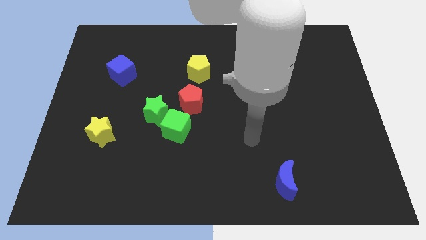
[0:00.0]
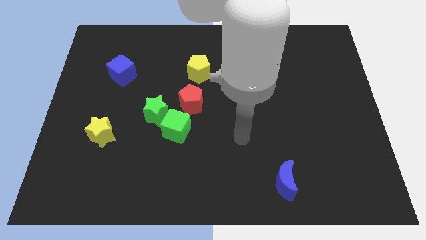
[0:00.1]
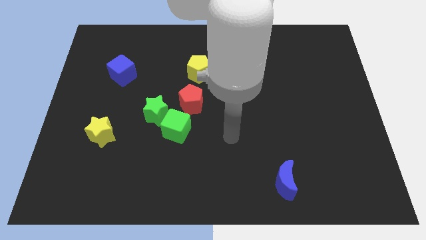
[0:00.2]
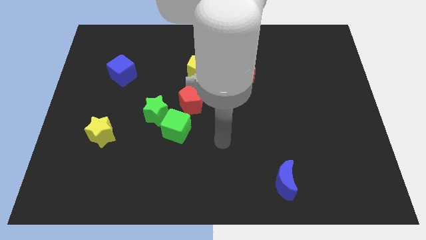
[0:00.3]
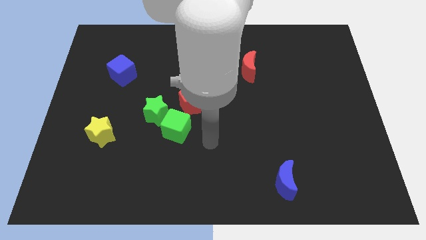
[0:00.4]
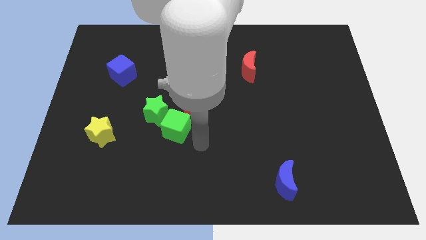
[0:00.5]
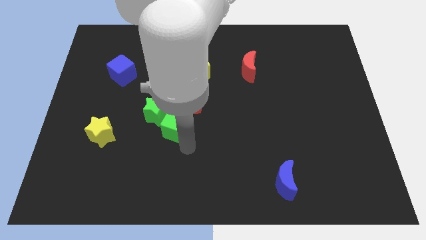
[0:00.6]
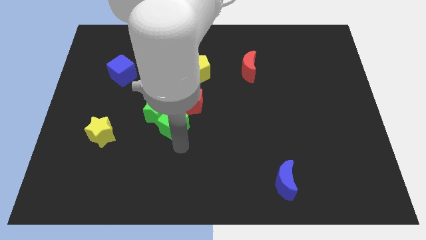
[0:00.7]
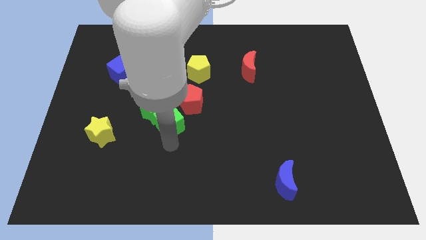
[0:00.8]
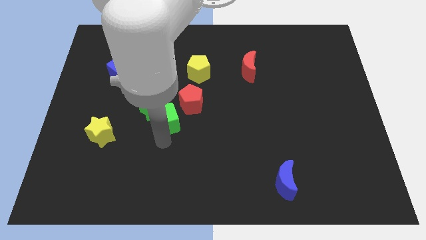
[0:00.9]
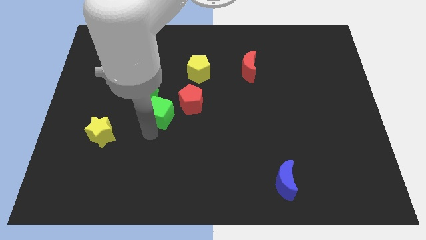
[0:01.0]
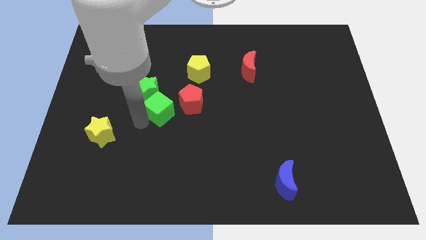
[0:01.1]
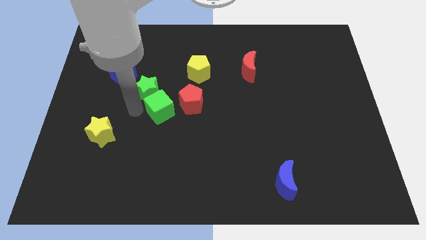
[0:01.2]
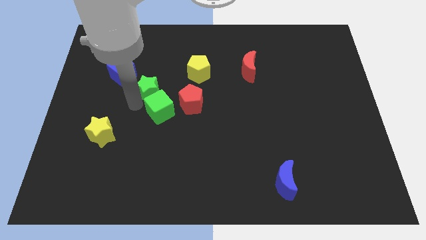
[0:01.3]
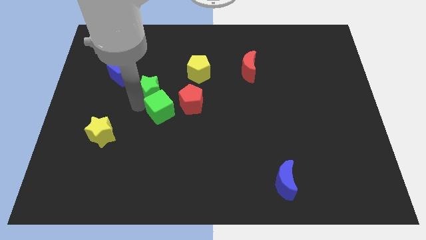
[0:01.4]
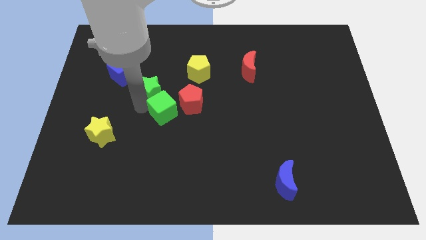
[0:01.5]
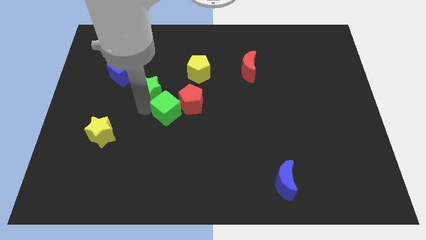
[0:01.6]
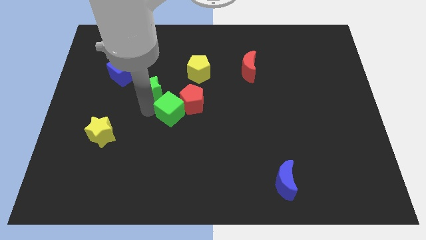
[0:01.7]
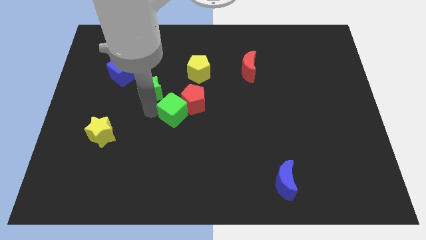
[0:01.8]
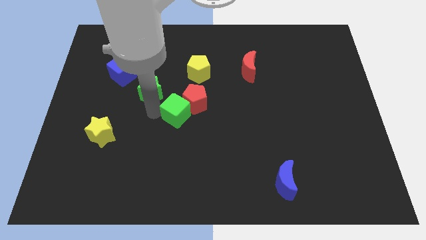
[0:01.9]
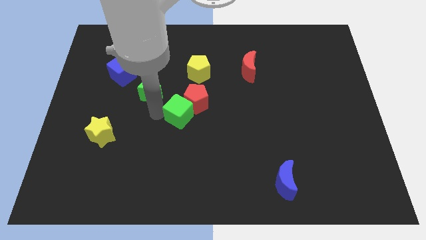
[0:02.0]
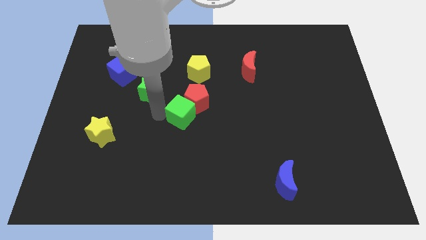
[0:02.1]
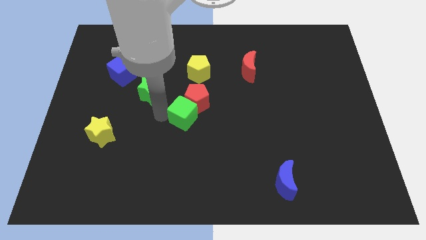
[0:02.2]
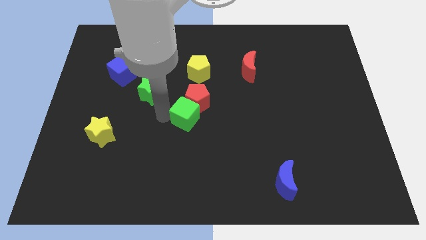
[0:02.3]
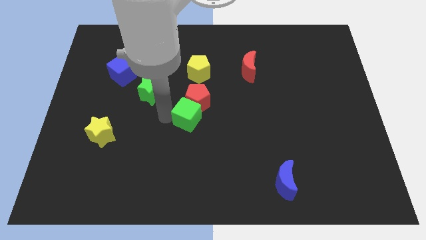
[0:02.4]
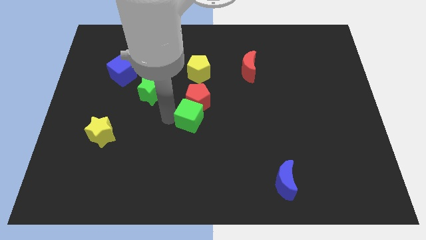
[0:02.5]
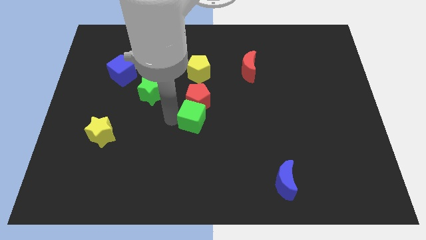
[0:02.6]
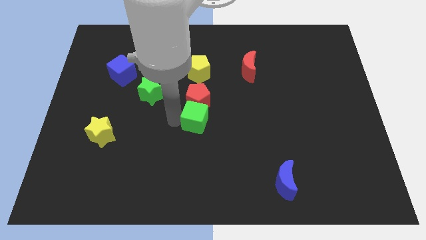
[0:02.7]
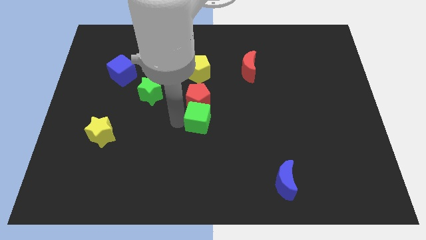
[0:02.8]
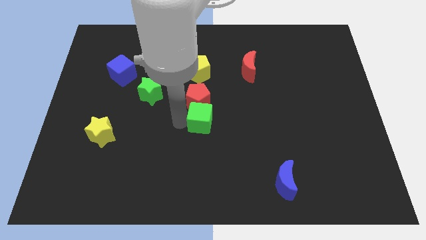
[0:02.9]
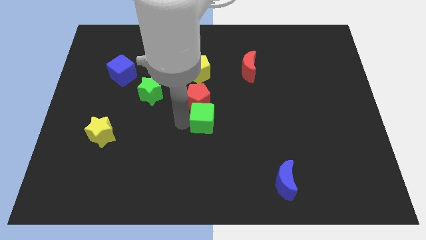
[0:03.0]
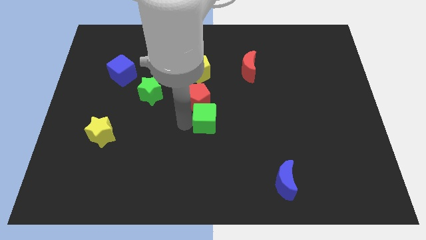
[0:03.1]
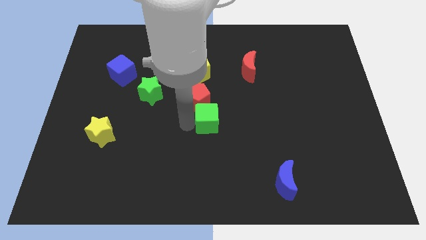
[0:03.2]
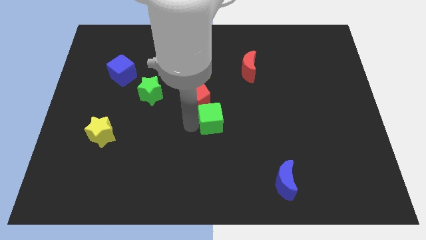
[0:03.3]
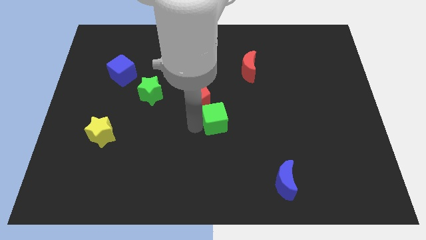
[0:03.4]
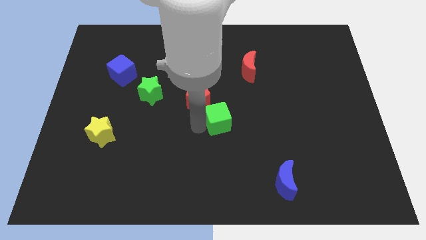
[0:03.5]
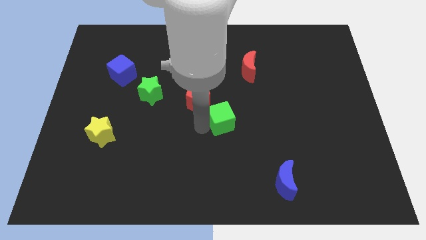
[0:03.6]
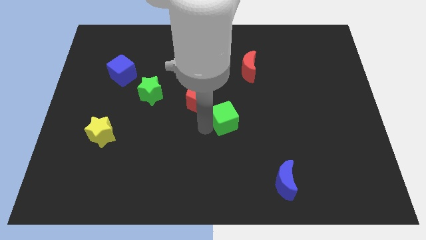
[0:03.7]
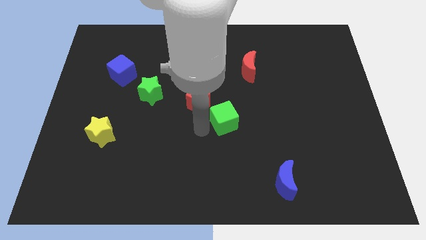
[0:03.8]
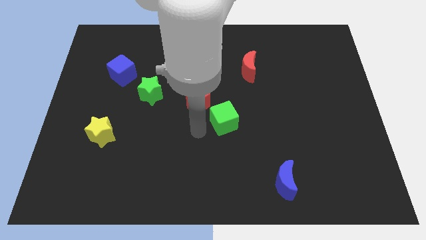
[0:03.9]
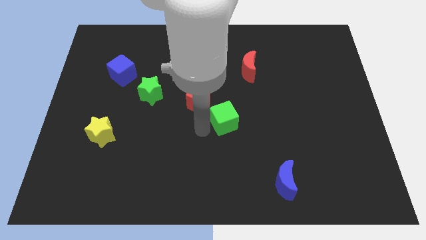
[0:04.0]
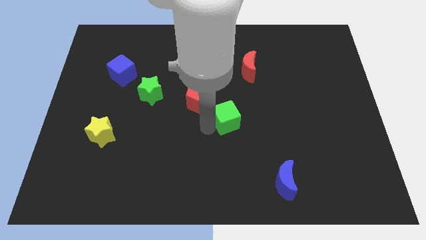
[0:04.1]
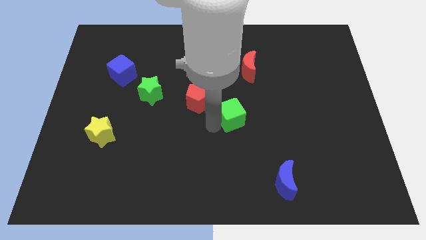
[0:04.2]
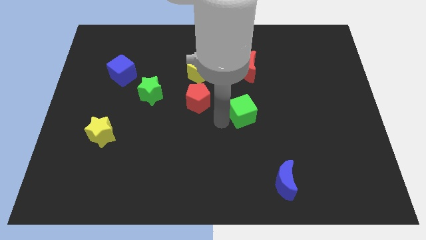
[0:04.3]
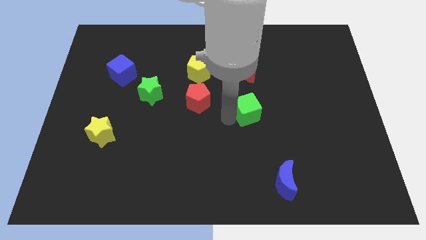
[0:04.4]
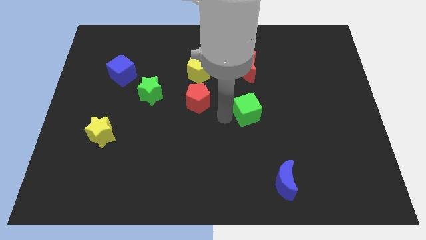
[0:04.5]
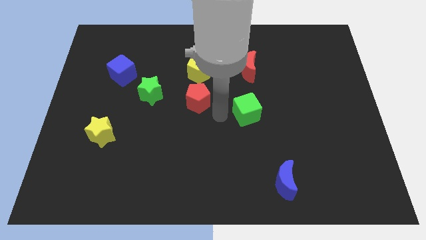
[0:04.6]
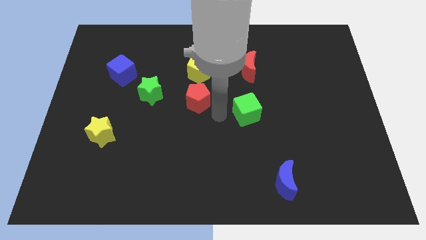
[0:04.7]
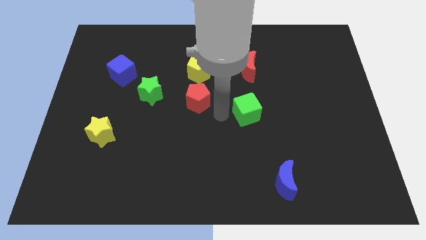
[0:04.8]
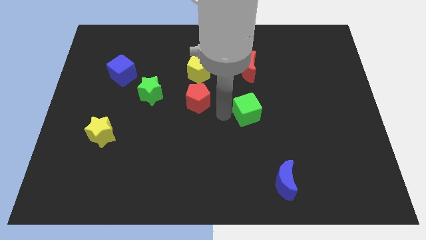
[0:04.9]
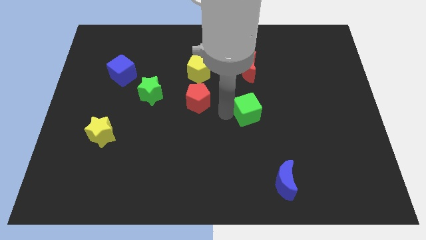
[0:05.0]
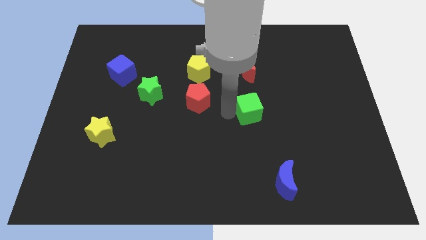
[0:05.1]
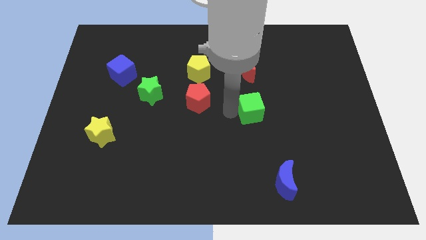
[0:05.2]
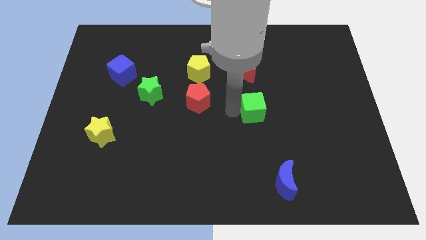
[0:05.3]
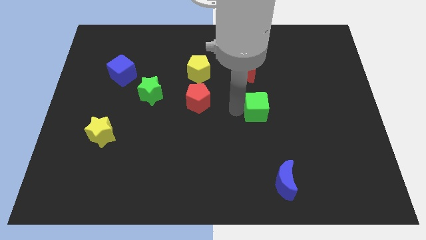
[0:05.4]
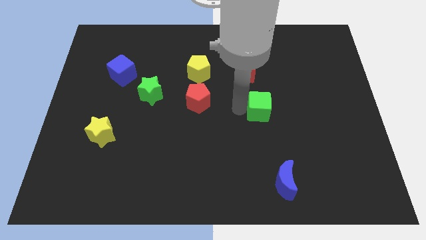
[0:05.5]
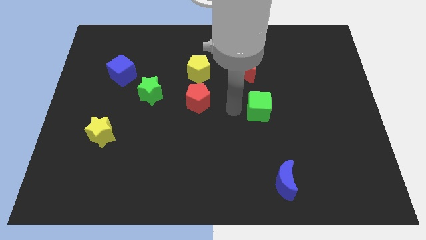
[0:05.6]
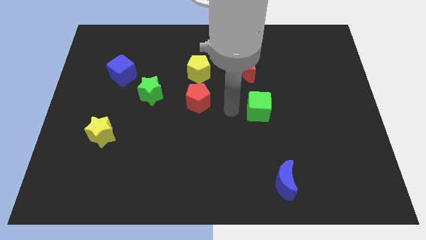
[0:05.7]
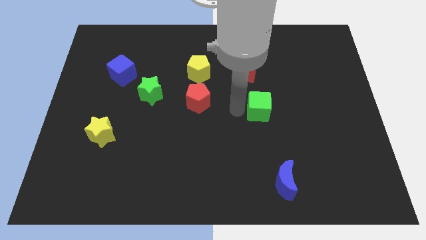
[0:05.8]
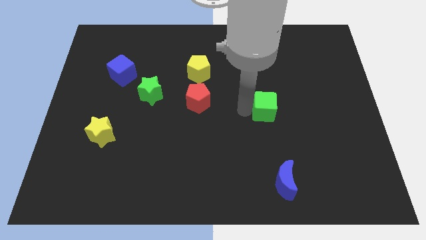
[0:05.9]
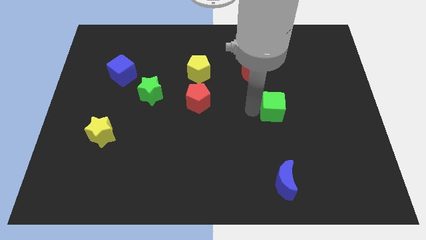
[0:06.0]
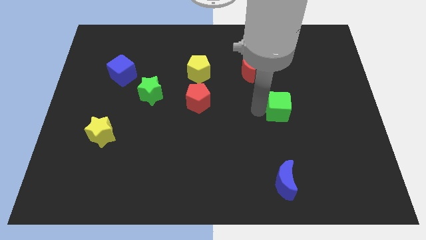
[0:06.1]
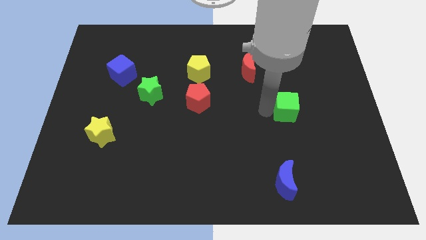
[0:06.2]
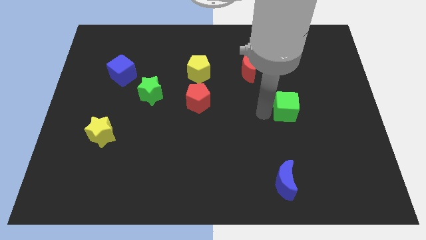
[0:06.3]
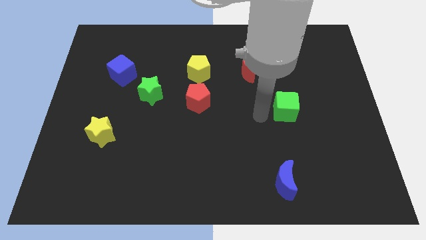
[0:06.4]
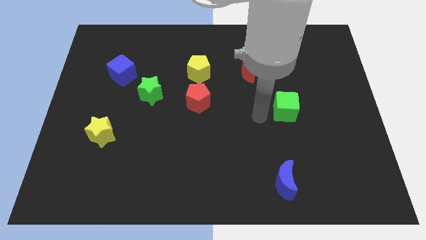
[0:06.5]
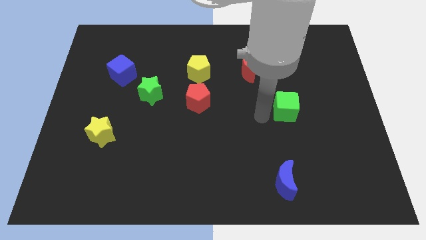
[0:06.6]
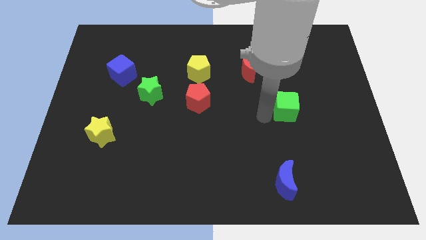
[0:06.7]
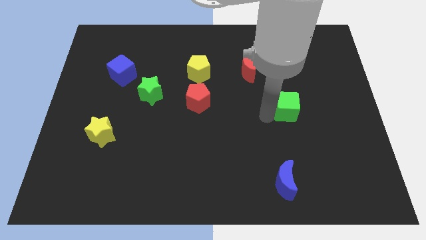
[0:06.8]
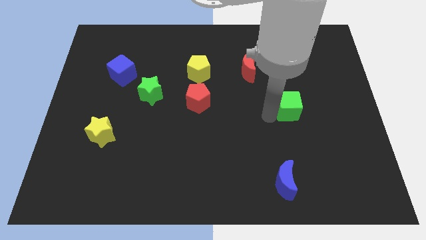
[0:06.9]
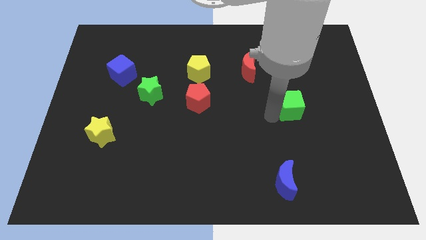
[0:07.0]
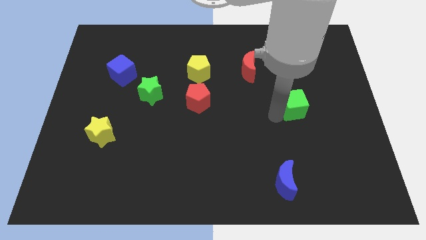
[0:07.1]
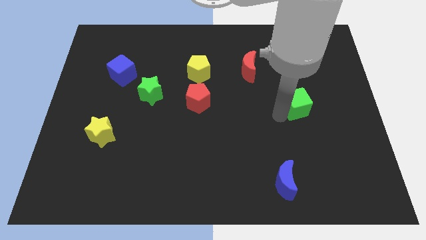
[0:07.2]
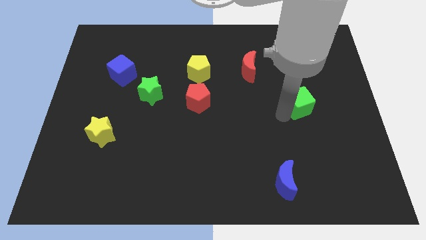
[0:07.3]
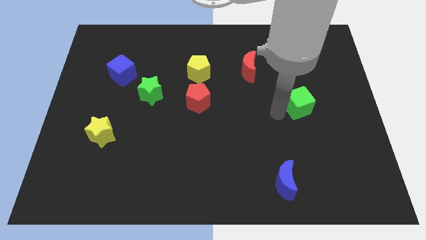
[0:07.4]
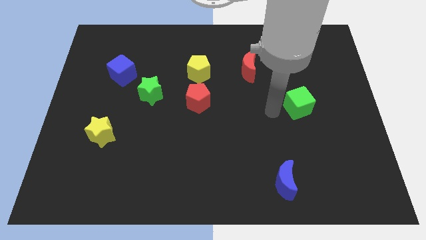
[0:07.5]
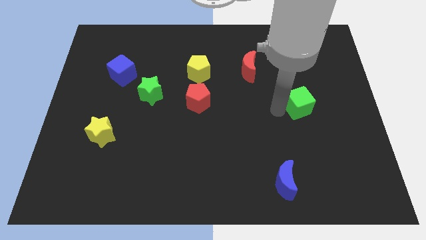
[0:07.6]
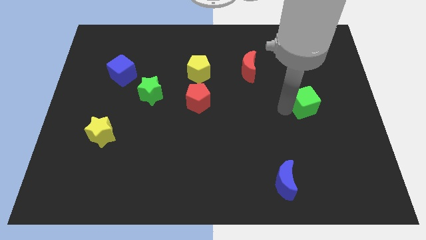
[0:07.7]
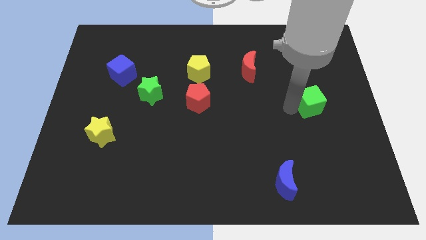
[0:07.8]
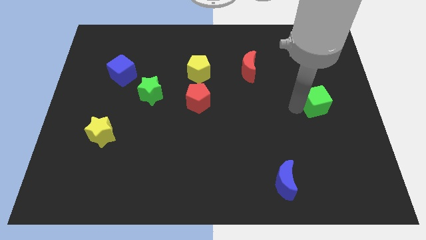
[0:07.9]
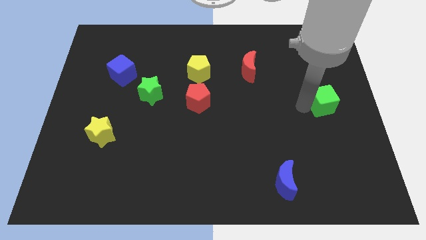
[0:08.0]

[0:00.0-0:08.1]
push the green cube to the center right
